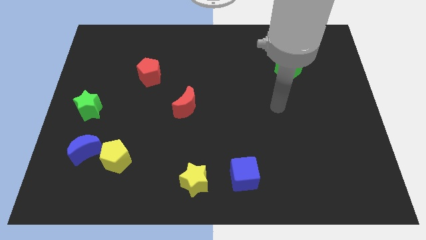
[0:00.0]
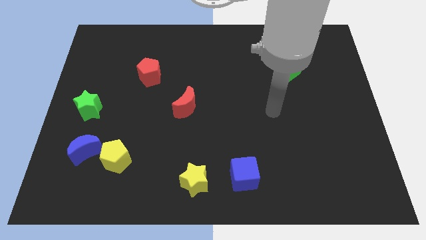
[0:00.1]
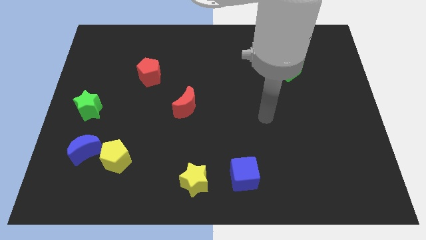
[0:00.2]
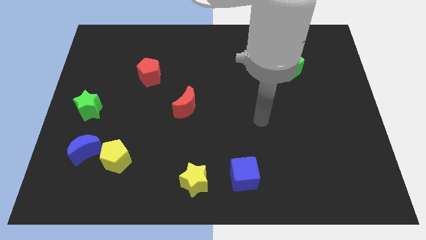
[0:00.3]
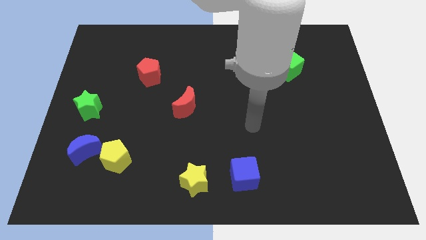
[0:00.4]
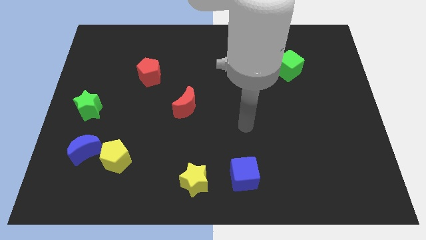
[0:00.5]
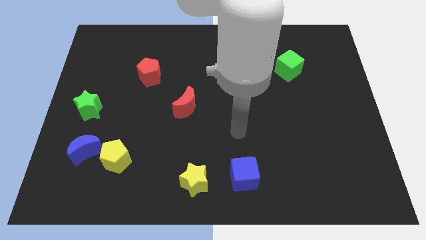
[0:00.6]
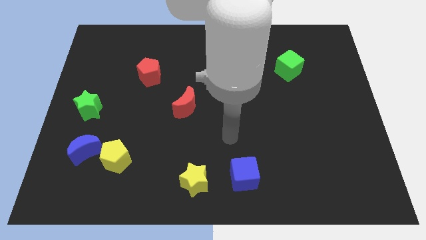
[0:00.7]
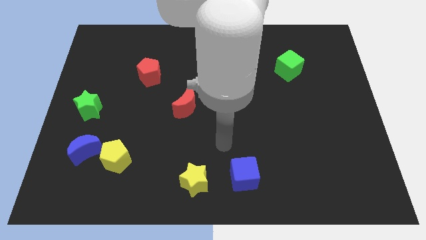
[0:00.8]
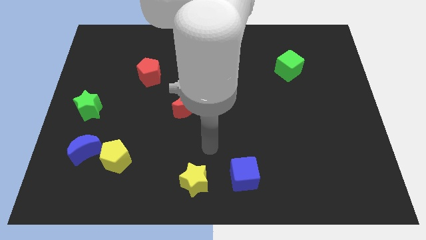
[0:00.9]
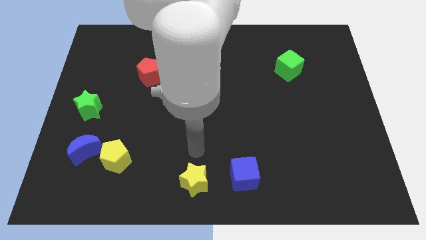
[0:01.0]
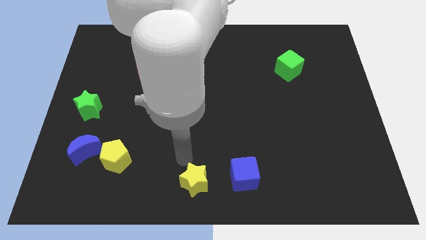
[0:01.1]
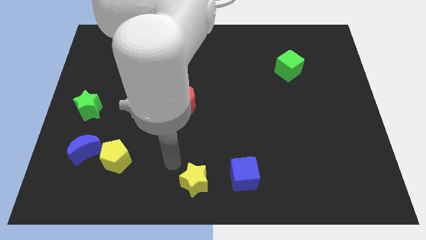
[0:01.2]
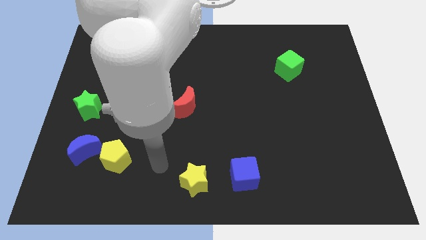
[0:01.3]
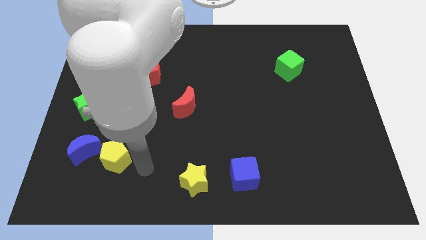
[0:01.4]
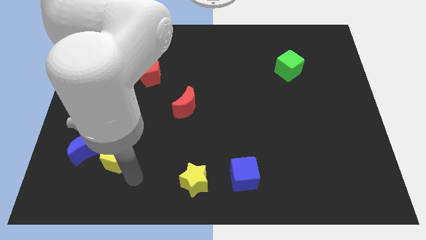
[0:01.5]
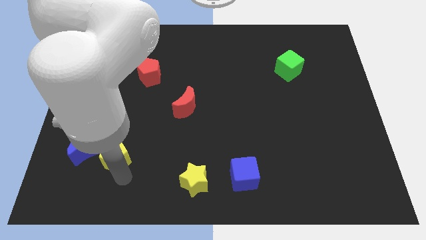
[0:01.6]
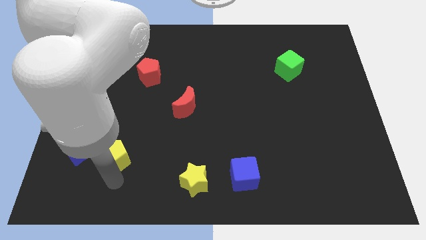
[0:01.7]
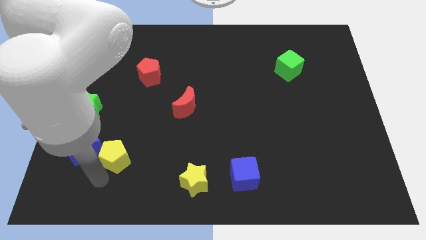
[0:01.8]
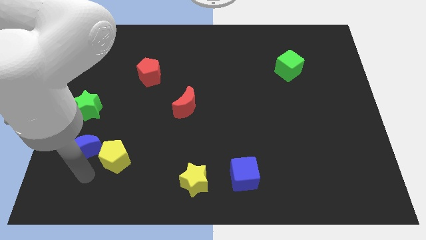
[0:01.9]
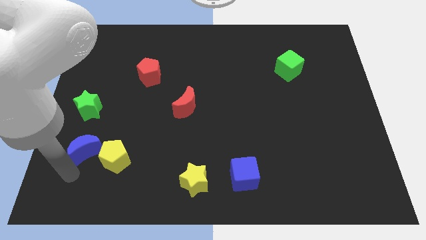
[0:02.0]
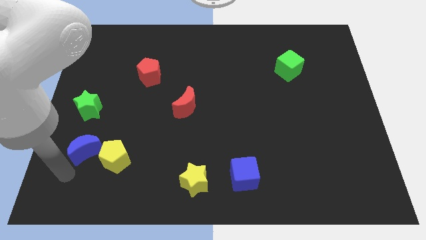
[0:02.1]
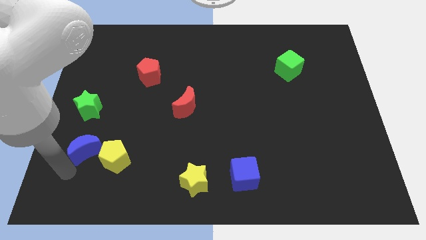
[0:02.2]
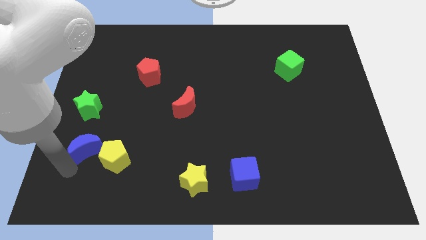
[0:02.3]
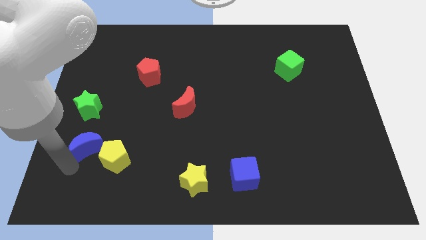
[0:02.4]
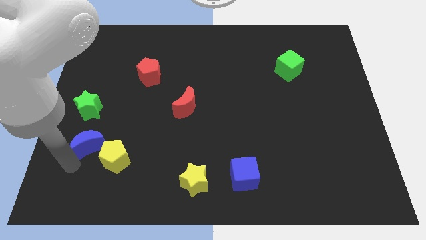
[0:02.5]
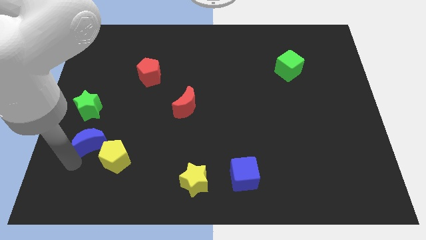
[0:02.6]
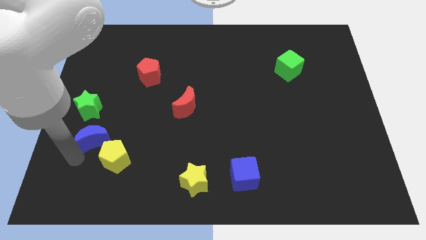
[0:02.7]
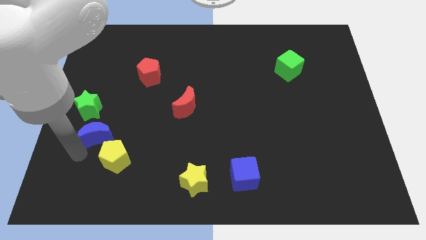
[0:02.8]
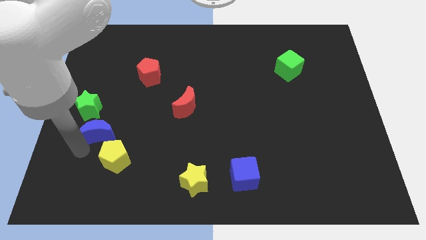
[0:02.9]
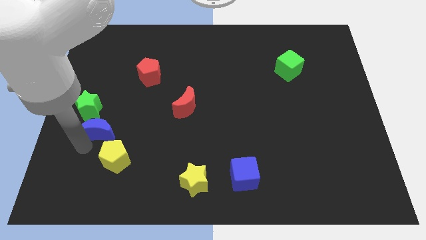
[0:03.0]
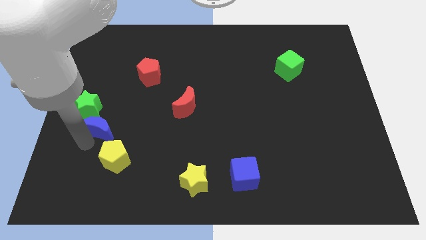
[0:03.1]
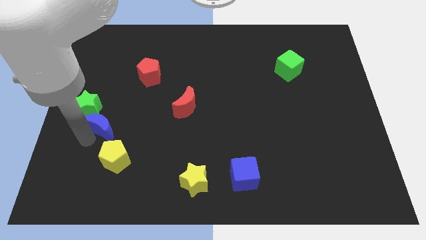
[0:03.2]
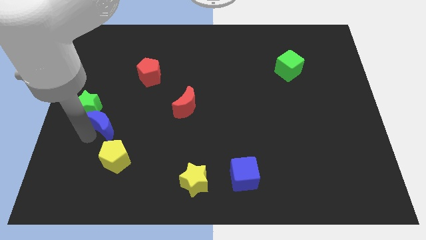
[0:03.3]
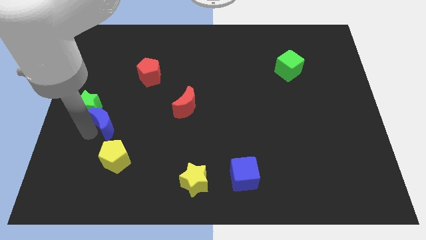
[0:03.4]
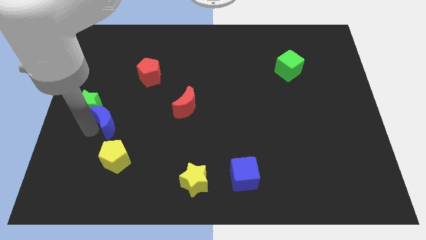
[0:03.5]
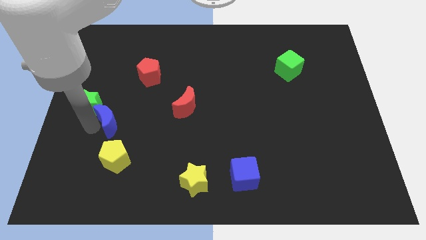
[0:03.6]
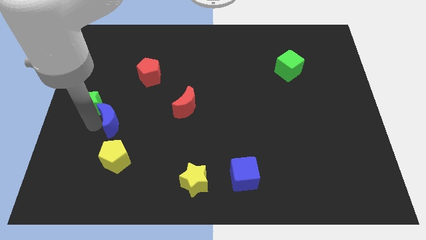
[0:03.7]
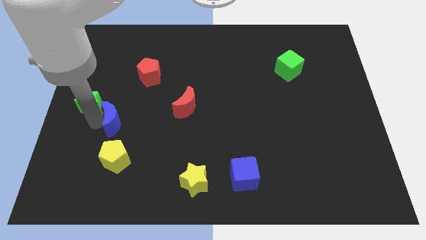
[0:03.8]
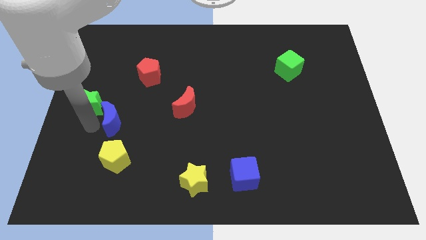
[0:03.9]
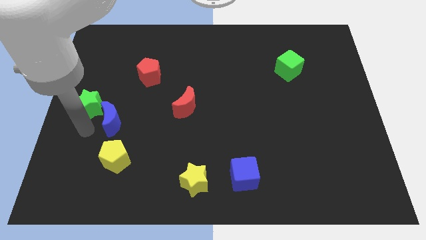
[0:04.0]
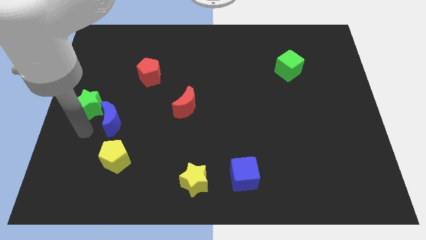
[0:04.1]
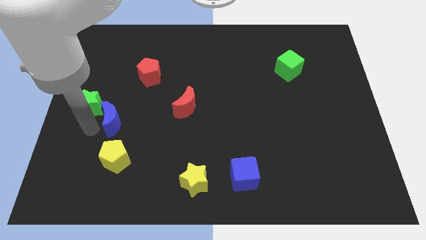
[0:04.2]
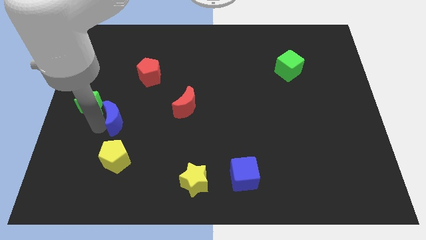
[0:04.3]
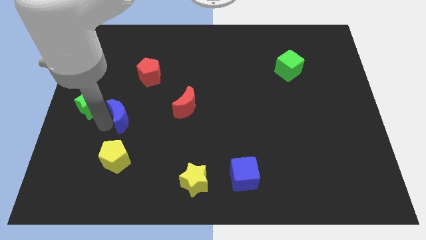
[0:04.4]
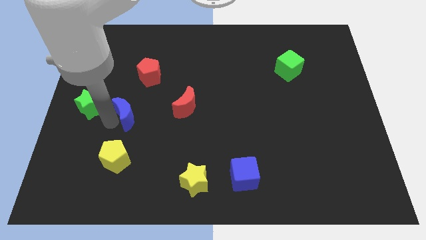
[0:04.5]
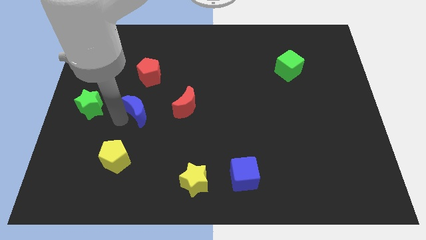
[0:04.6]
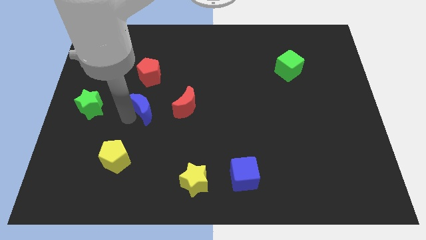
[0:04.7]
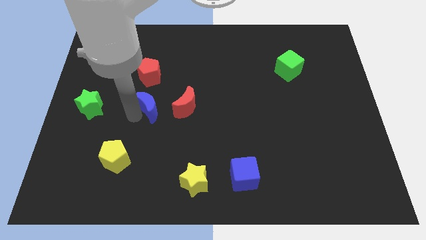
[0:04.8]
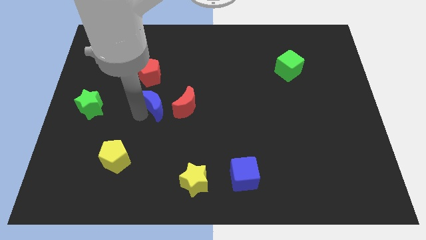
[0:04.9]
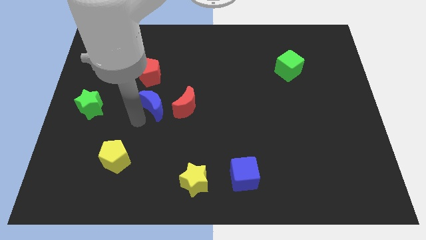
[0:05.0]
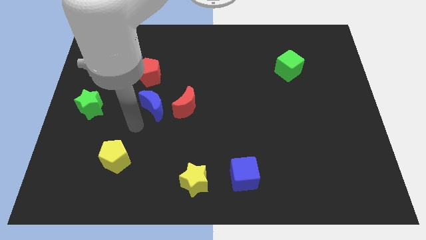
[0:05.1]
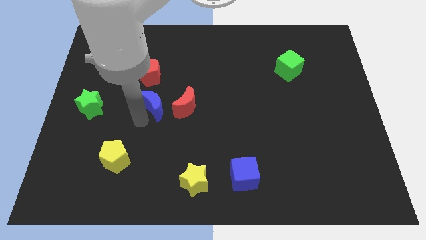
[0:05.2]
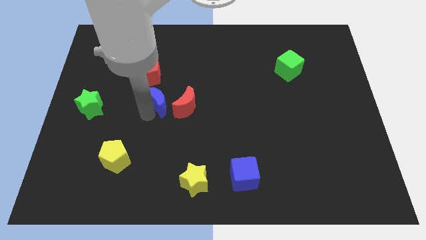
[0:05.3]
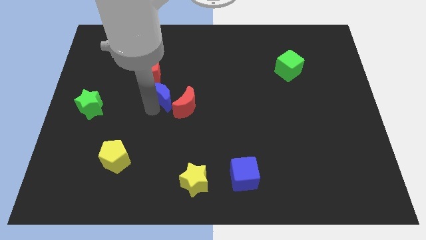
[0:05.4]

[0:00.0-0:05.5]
slide the blue moon up and then right

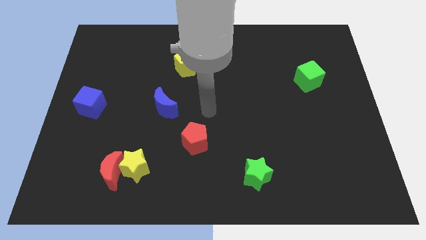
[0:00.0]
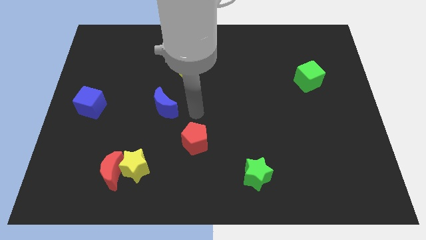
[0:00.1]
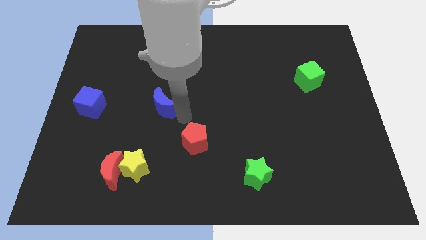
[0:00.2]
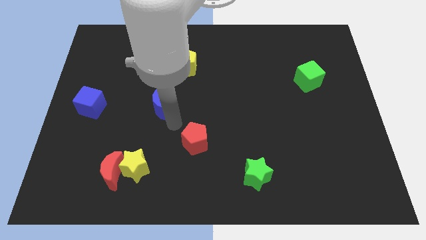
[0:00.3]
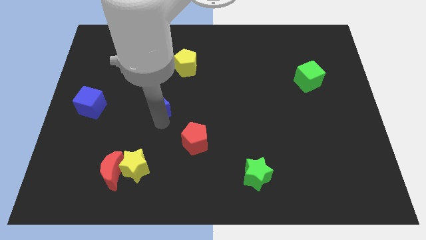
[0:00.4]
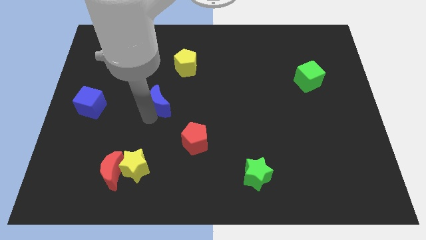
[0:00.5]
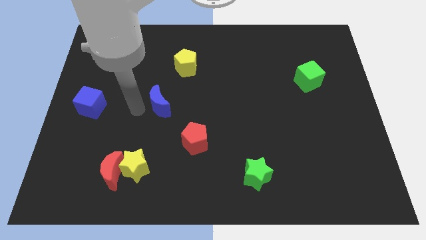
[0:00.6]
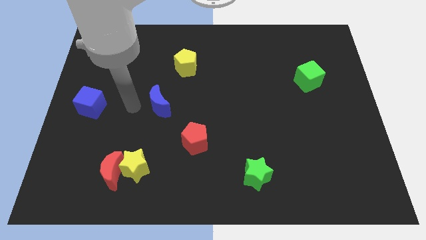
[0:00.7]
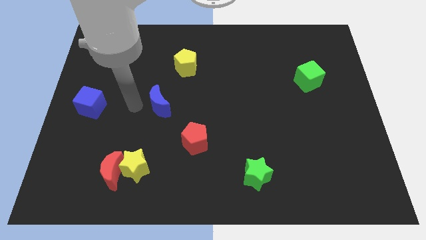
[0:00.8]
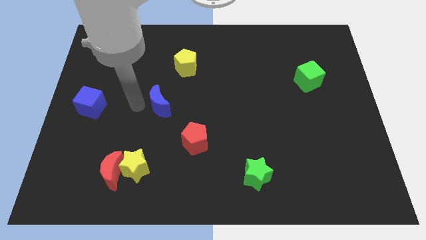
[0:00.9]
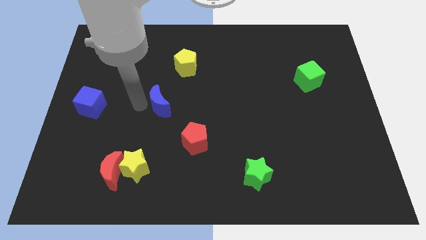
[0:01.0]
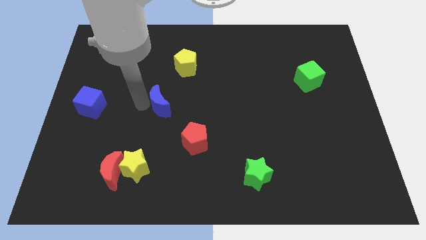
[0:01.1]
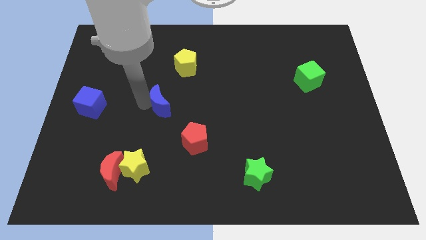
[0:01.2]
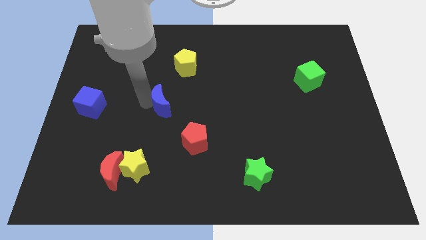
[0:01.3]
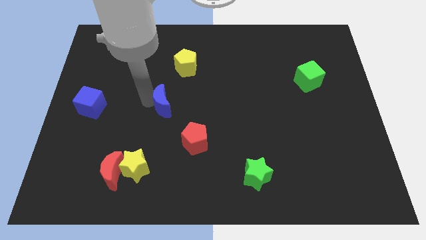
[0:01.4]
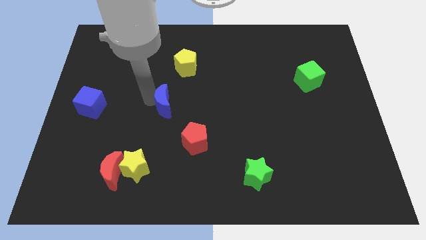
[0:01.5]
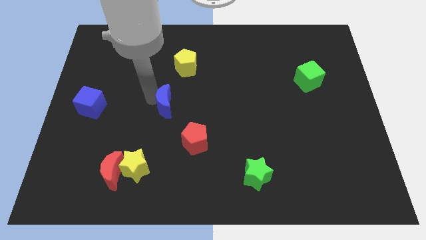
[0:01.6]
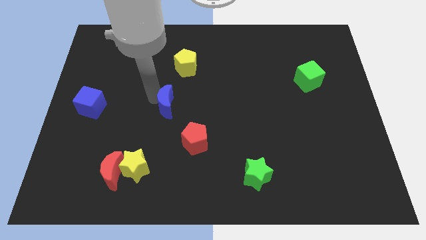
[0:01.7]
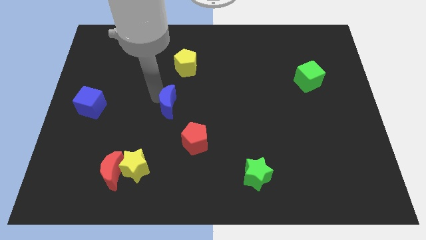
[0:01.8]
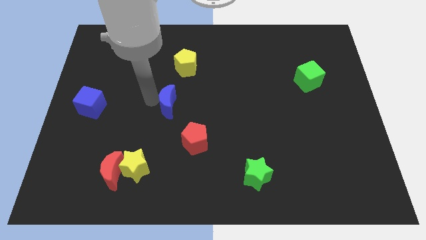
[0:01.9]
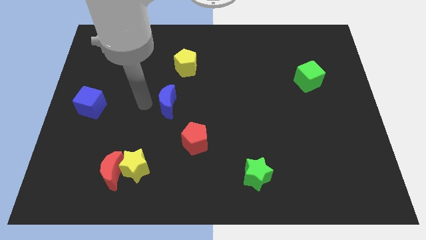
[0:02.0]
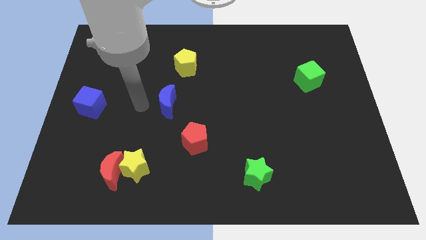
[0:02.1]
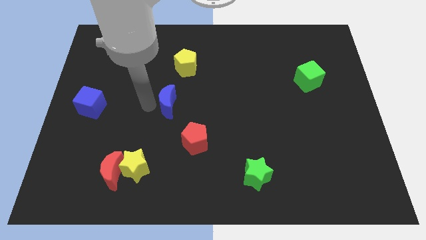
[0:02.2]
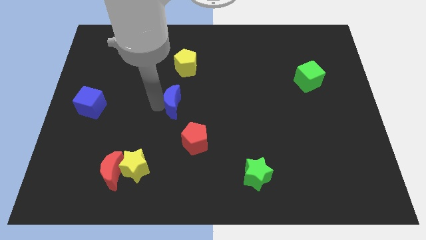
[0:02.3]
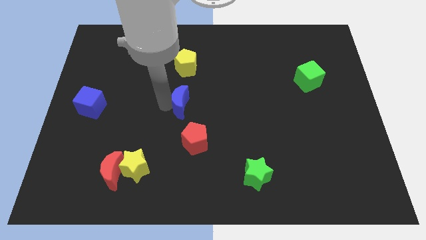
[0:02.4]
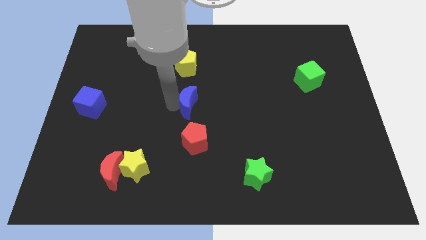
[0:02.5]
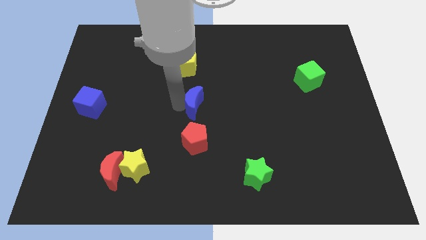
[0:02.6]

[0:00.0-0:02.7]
slide the blue moon to the right slightly

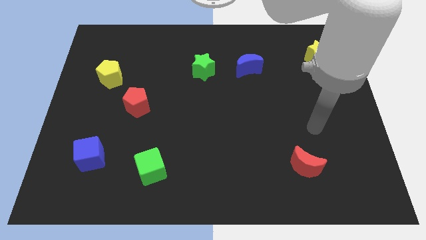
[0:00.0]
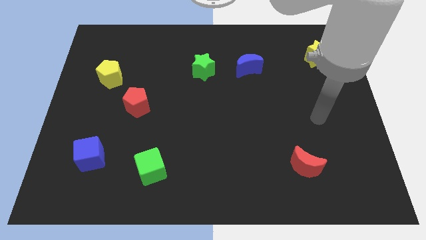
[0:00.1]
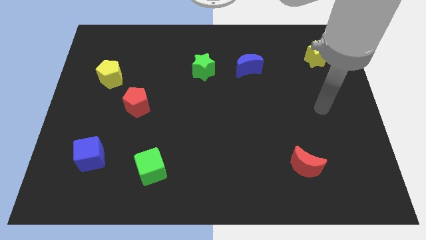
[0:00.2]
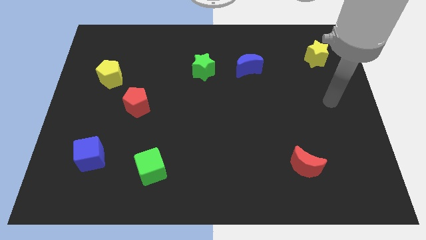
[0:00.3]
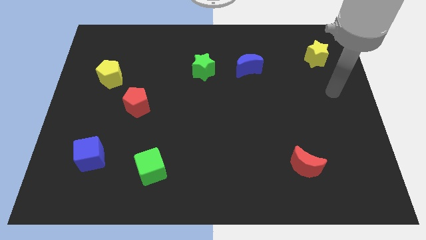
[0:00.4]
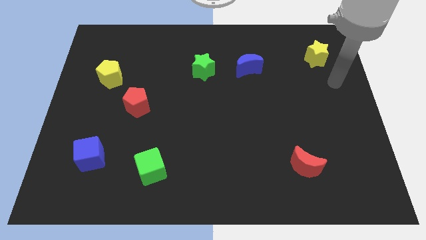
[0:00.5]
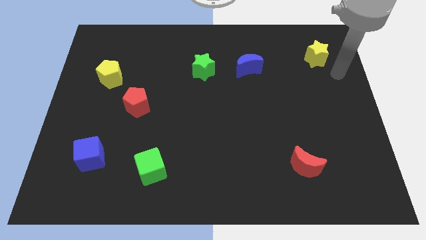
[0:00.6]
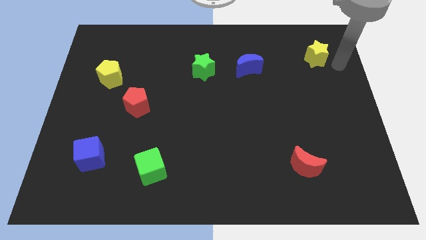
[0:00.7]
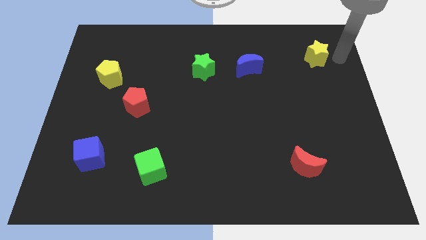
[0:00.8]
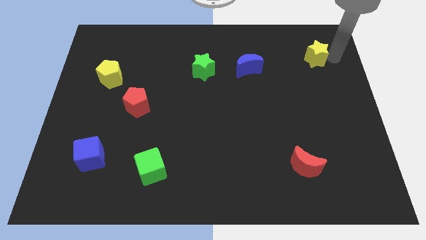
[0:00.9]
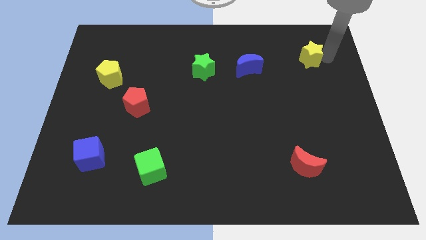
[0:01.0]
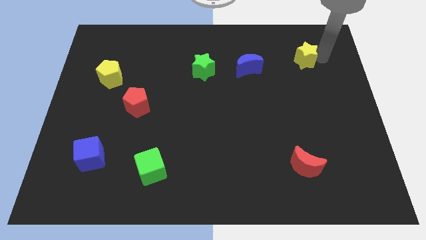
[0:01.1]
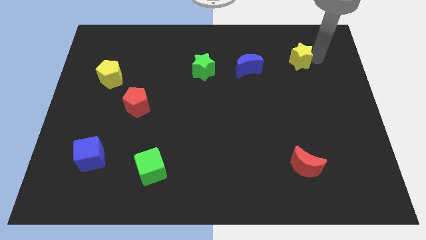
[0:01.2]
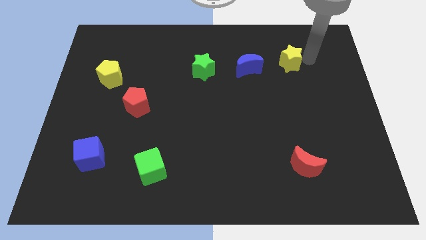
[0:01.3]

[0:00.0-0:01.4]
slightly move the yellow star left
